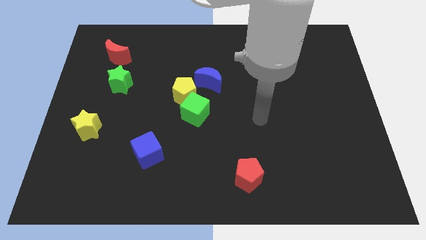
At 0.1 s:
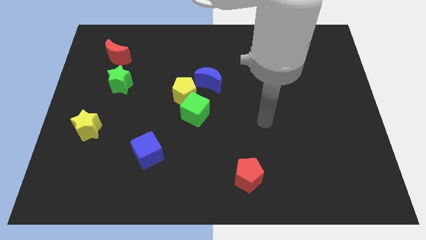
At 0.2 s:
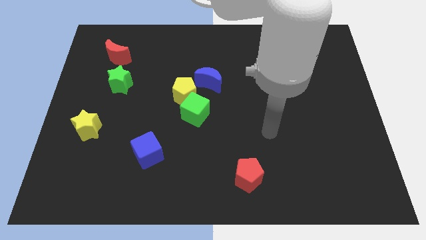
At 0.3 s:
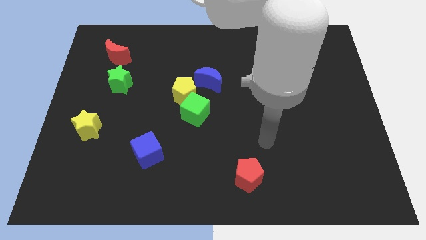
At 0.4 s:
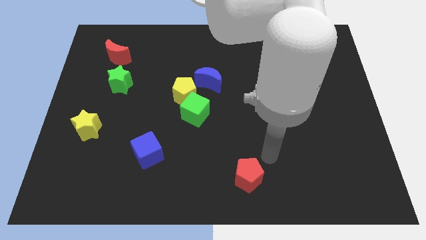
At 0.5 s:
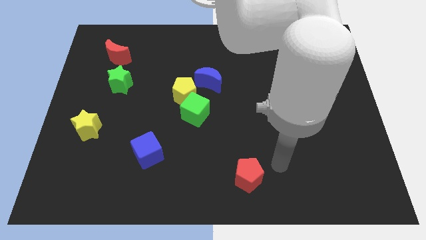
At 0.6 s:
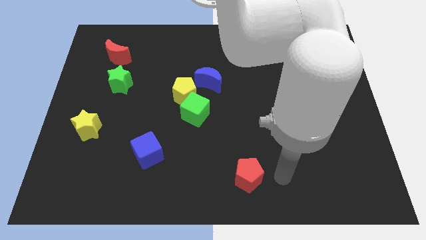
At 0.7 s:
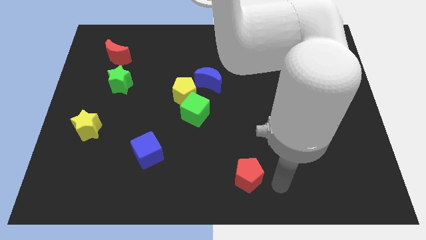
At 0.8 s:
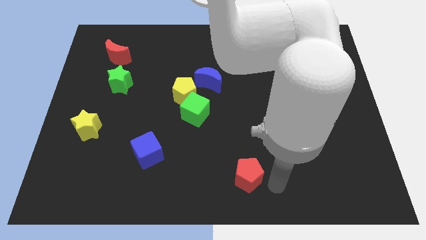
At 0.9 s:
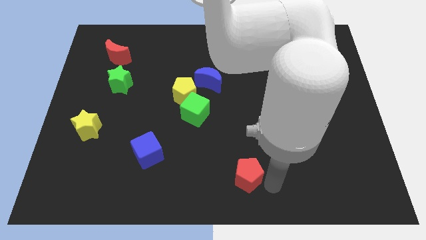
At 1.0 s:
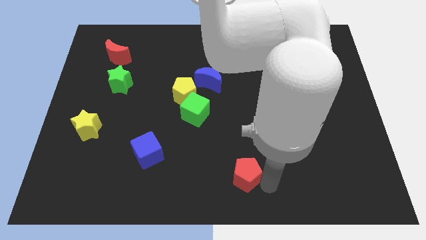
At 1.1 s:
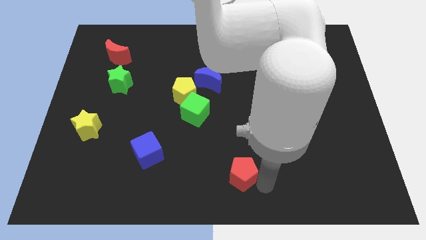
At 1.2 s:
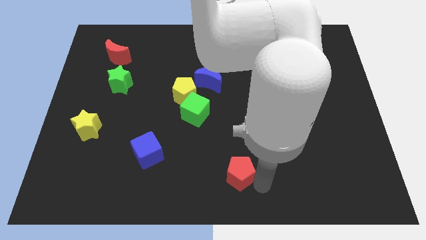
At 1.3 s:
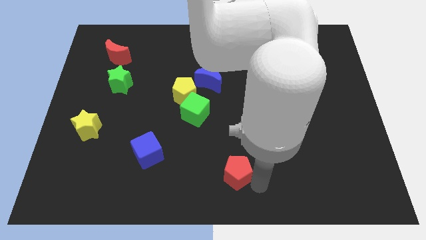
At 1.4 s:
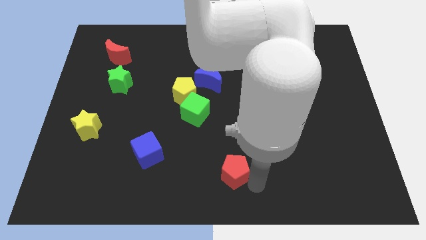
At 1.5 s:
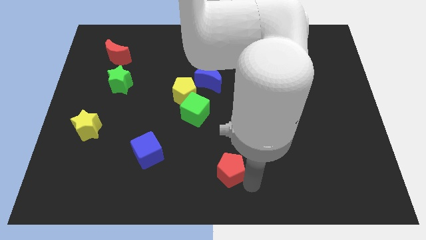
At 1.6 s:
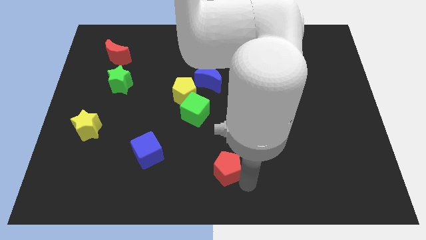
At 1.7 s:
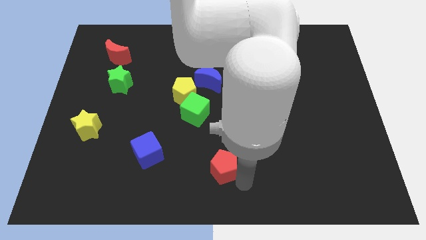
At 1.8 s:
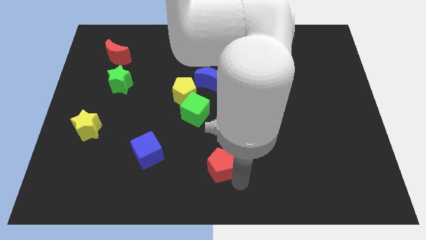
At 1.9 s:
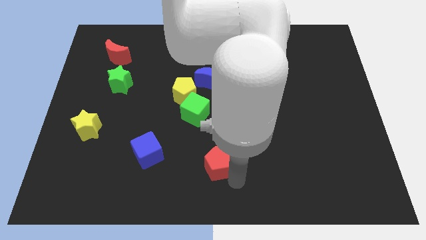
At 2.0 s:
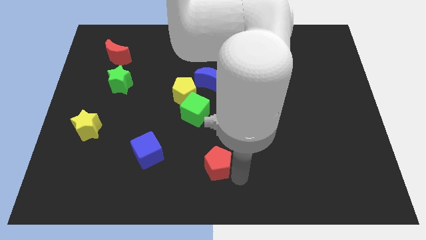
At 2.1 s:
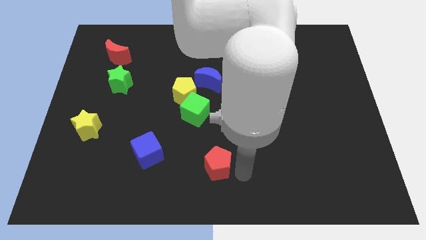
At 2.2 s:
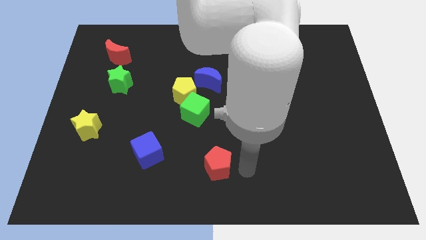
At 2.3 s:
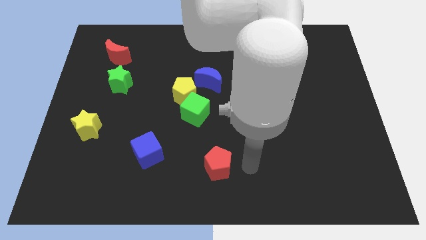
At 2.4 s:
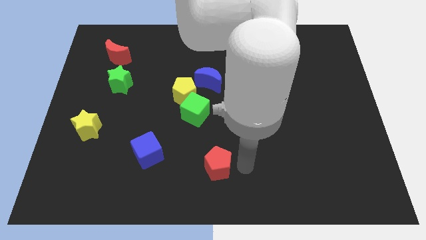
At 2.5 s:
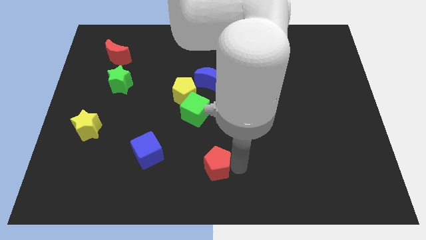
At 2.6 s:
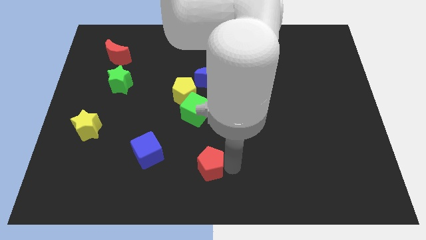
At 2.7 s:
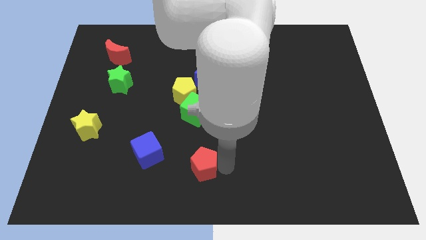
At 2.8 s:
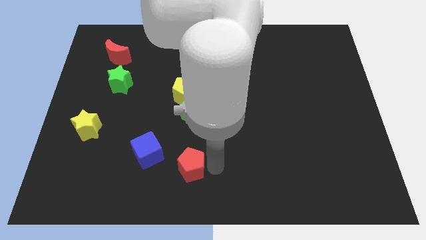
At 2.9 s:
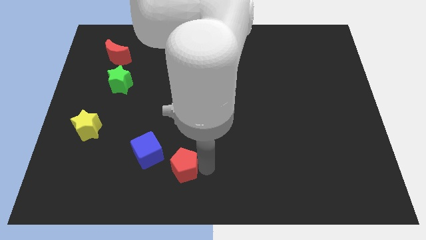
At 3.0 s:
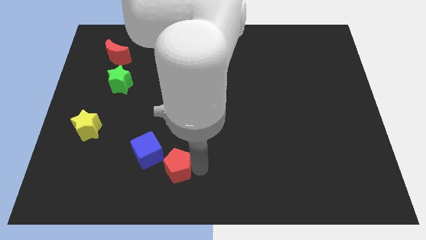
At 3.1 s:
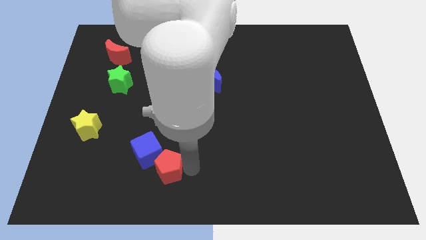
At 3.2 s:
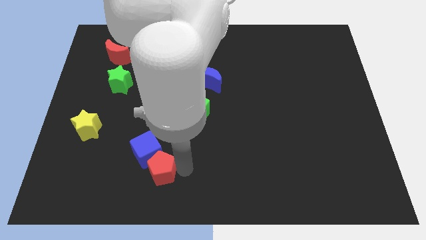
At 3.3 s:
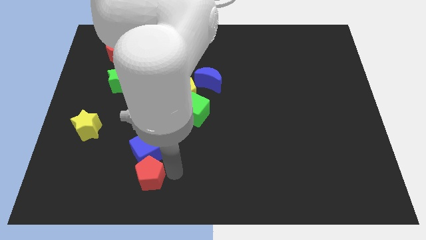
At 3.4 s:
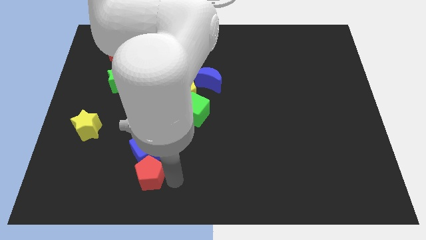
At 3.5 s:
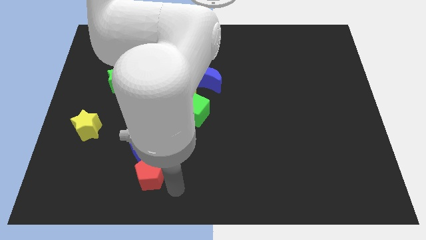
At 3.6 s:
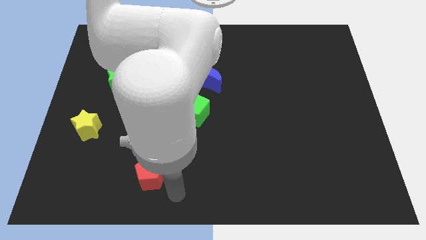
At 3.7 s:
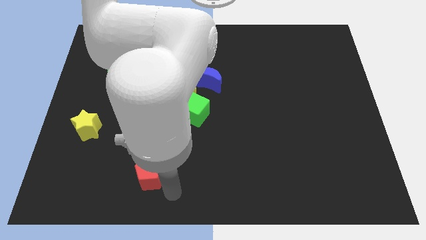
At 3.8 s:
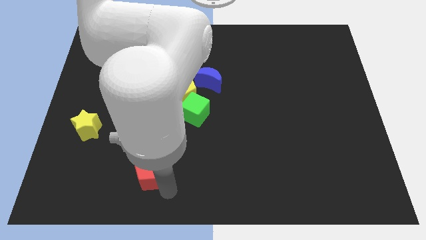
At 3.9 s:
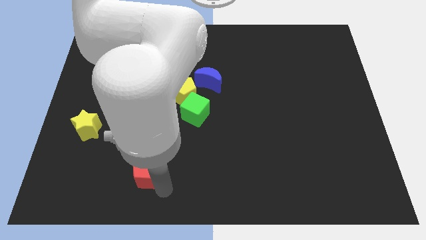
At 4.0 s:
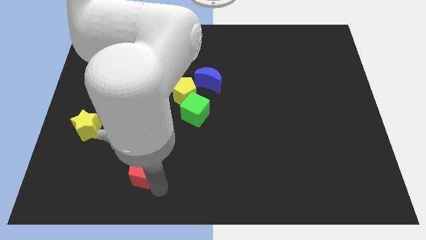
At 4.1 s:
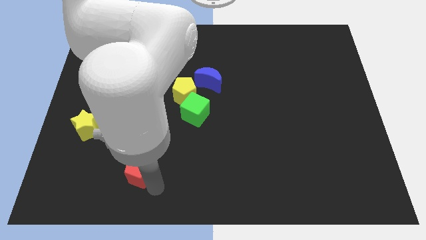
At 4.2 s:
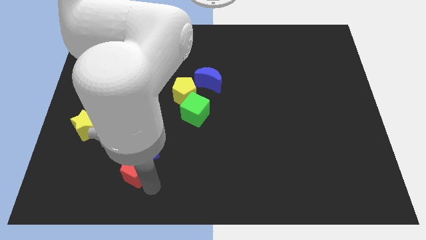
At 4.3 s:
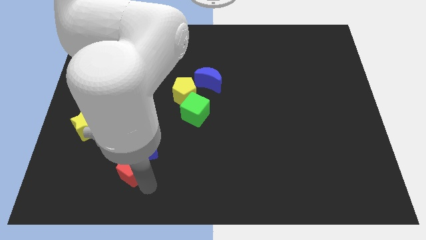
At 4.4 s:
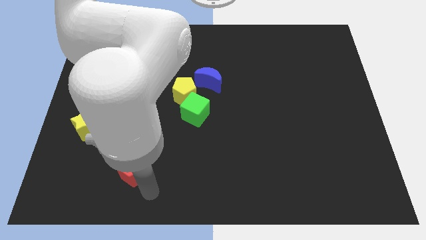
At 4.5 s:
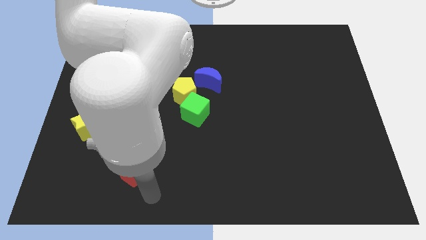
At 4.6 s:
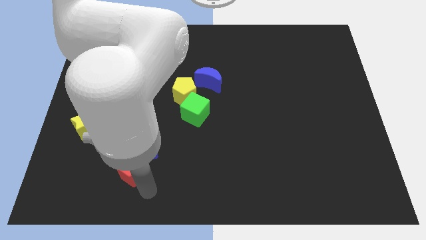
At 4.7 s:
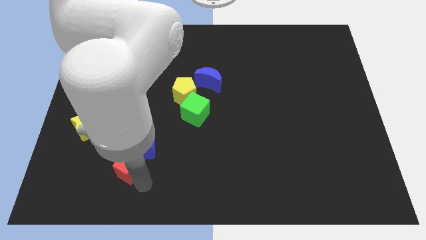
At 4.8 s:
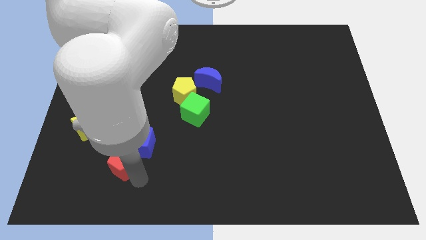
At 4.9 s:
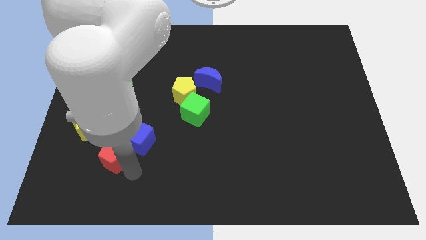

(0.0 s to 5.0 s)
slide the red pentagon to the left of the blue cube

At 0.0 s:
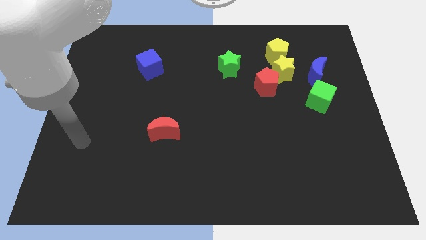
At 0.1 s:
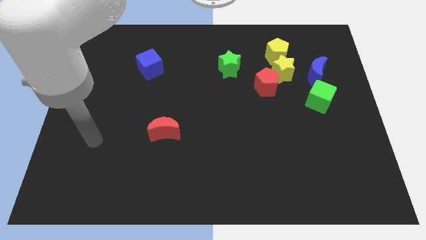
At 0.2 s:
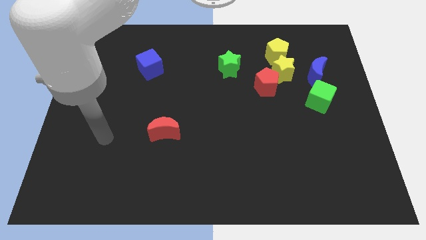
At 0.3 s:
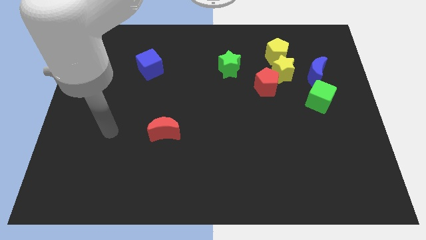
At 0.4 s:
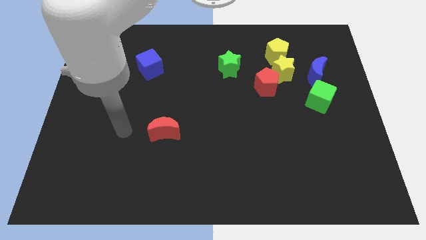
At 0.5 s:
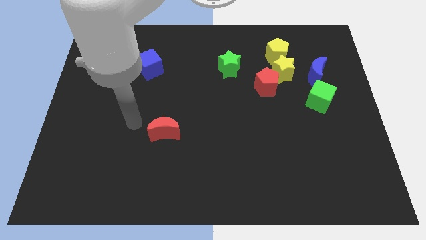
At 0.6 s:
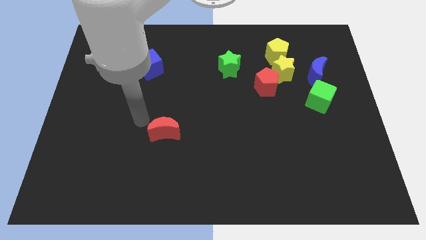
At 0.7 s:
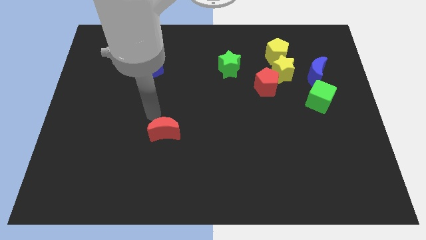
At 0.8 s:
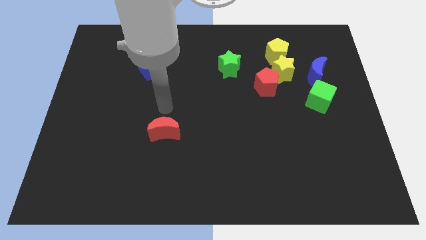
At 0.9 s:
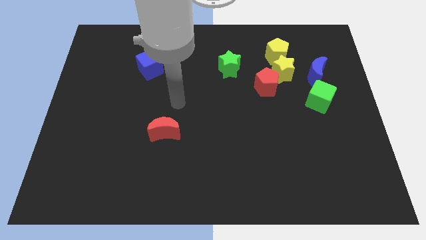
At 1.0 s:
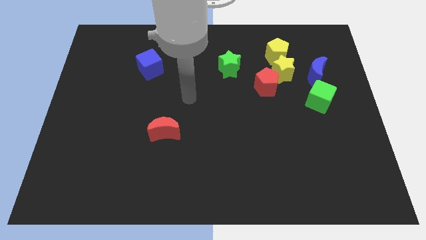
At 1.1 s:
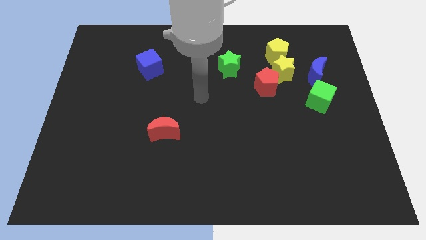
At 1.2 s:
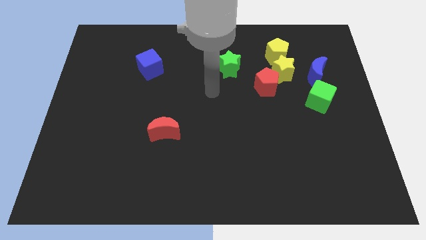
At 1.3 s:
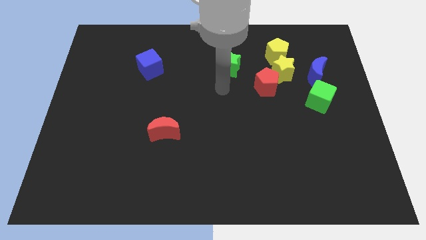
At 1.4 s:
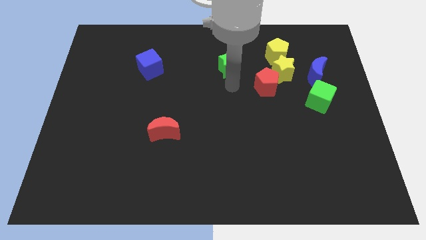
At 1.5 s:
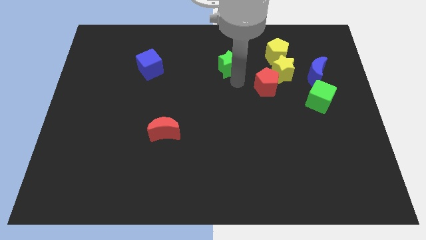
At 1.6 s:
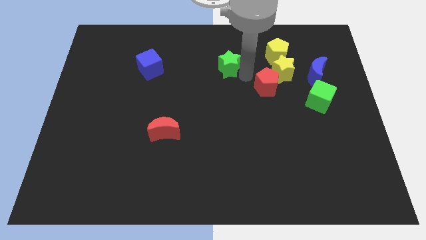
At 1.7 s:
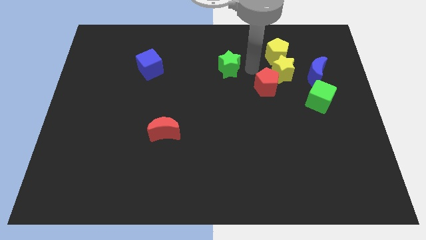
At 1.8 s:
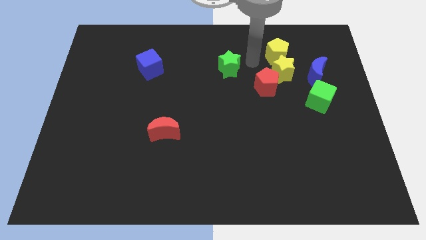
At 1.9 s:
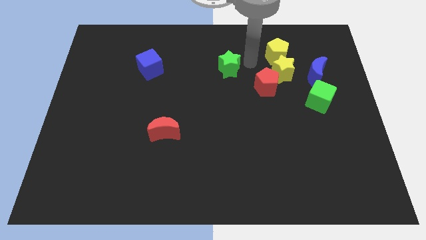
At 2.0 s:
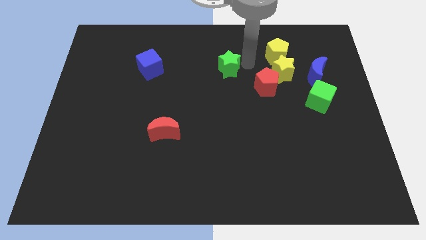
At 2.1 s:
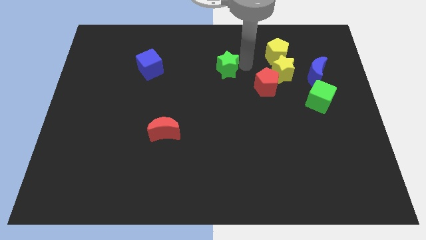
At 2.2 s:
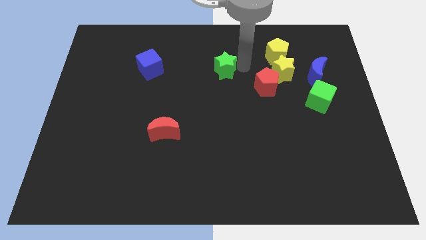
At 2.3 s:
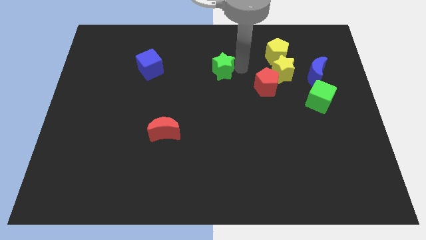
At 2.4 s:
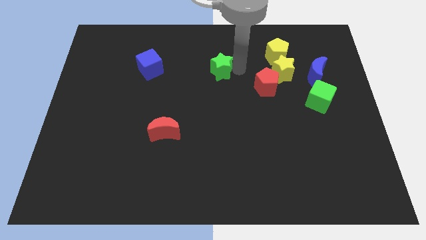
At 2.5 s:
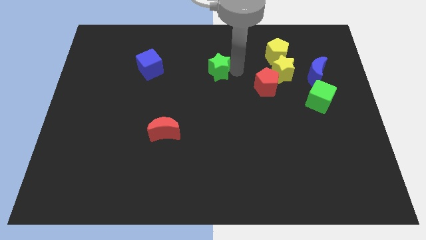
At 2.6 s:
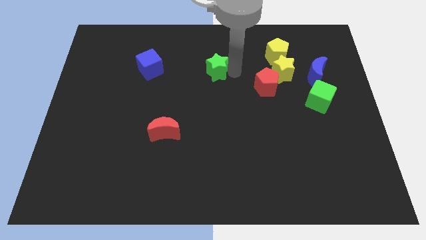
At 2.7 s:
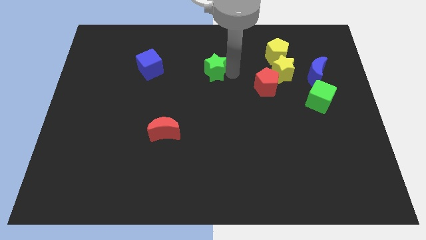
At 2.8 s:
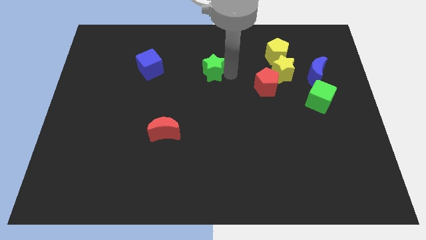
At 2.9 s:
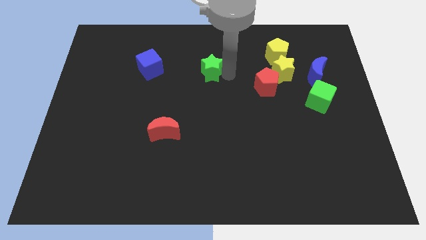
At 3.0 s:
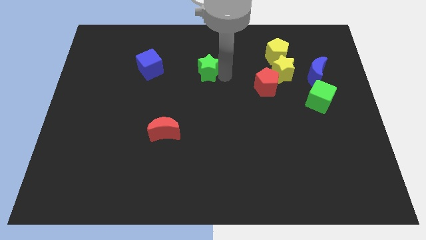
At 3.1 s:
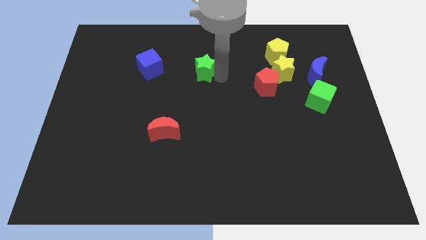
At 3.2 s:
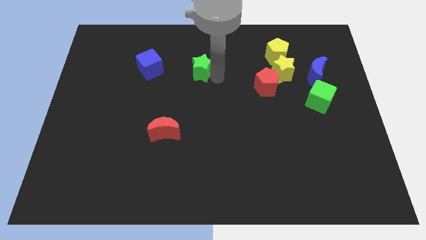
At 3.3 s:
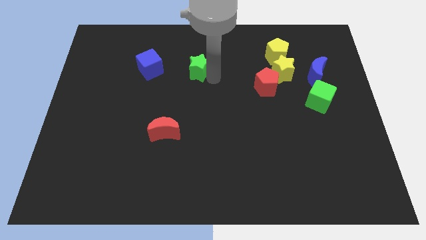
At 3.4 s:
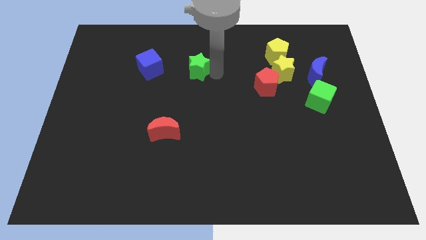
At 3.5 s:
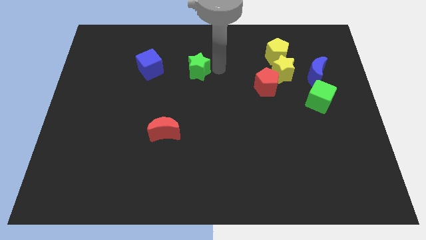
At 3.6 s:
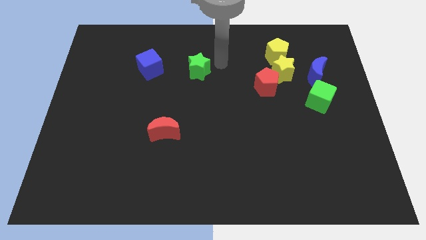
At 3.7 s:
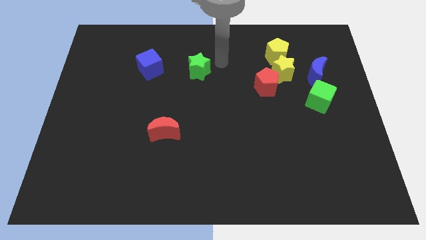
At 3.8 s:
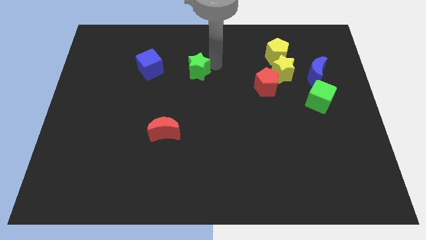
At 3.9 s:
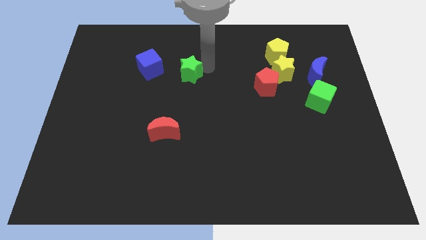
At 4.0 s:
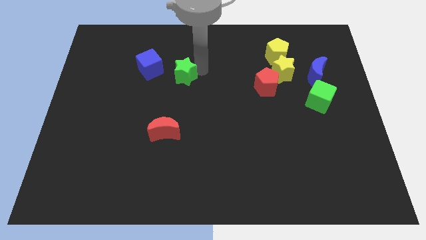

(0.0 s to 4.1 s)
push the green star to the bottom right side of the blue cube
